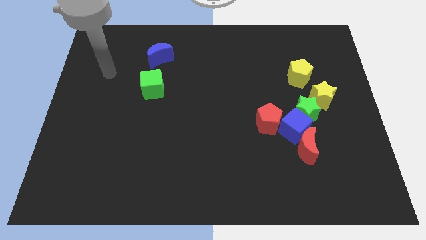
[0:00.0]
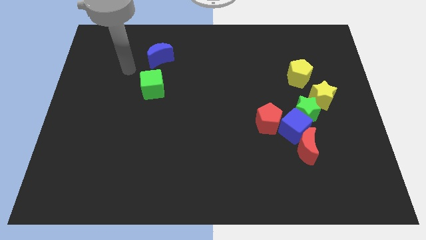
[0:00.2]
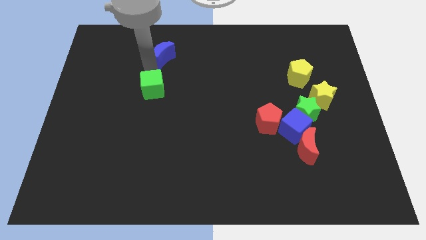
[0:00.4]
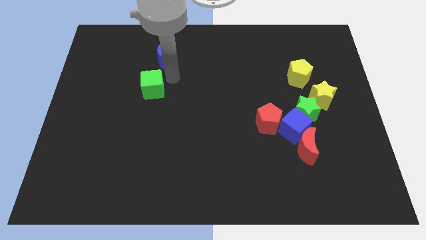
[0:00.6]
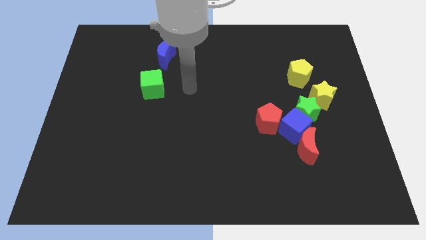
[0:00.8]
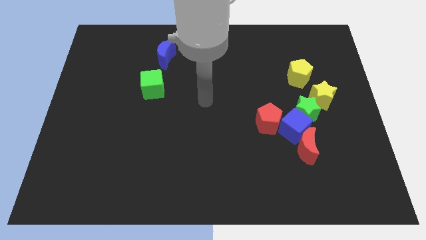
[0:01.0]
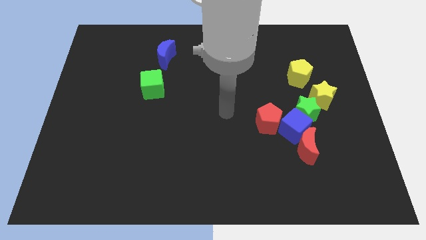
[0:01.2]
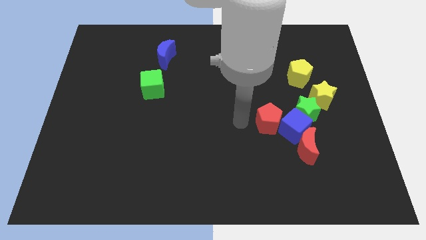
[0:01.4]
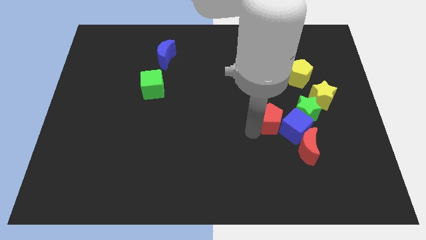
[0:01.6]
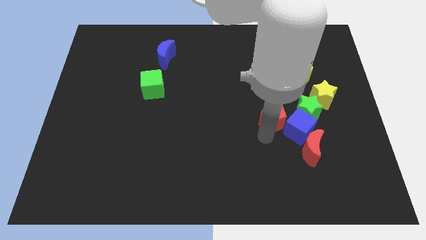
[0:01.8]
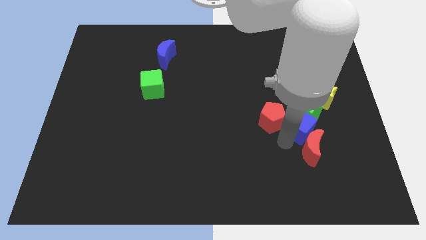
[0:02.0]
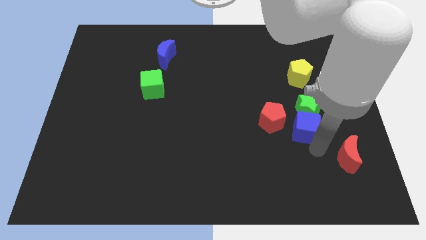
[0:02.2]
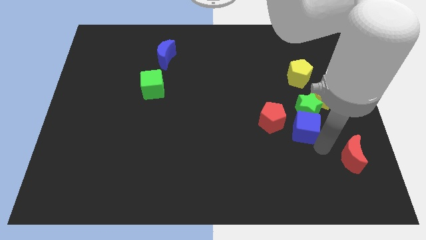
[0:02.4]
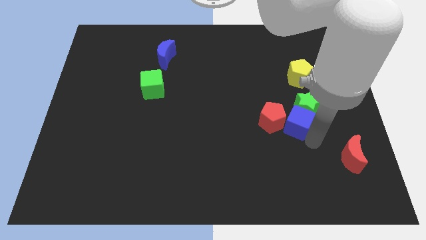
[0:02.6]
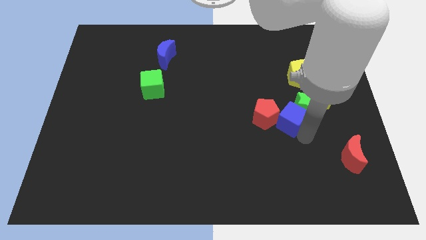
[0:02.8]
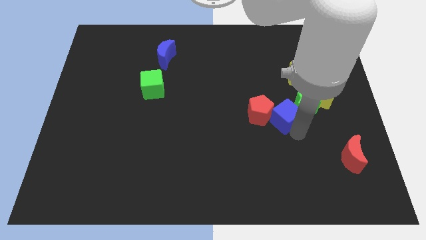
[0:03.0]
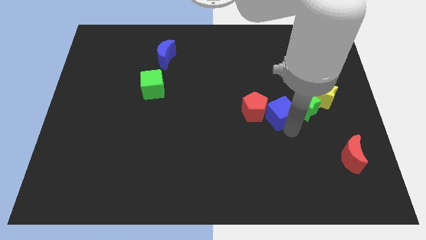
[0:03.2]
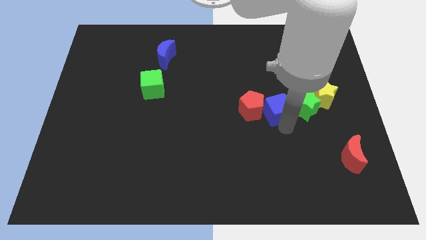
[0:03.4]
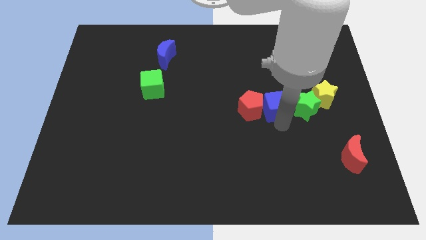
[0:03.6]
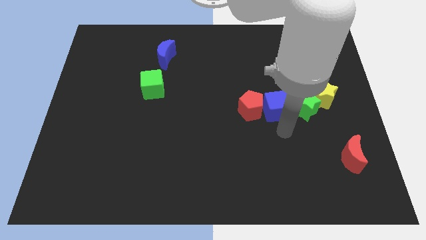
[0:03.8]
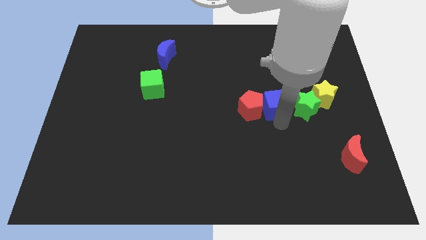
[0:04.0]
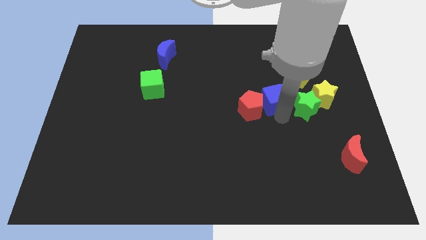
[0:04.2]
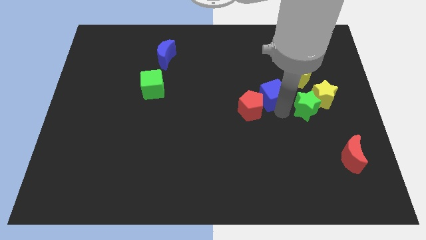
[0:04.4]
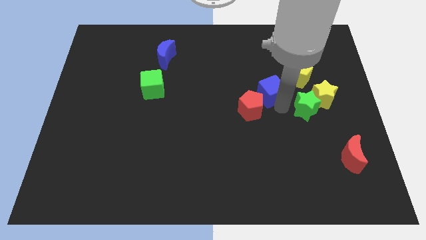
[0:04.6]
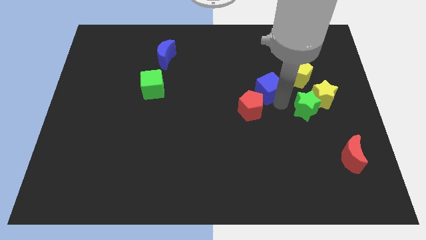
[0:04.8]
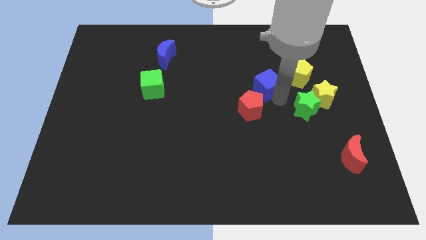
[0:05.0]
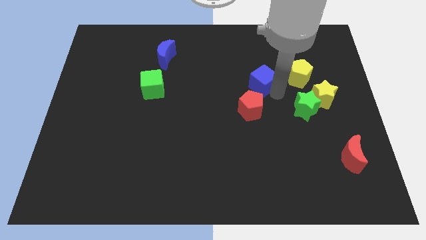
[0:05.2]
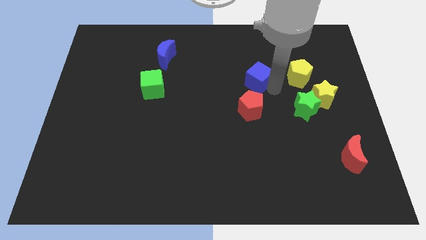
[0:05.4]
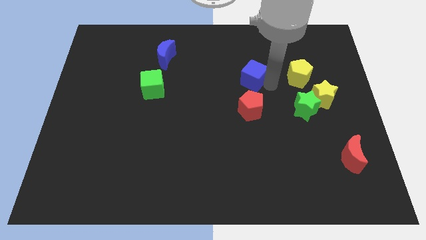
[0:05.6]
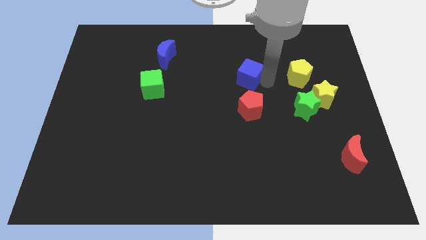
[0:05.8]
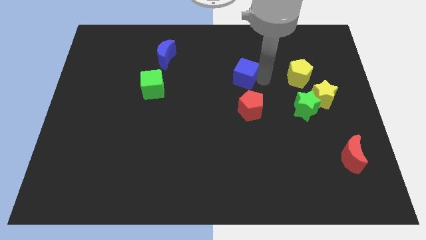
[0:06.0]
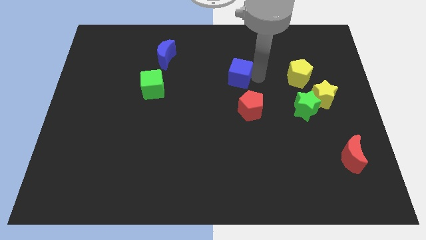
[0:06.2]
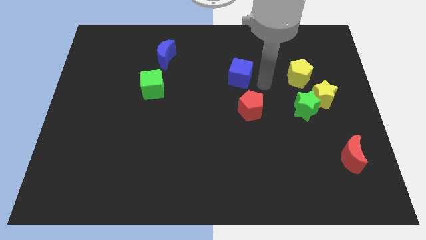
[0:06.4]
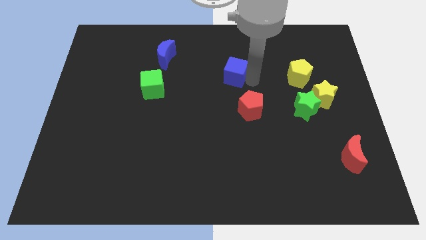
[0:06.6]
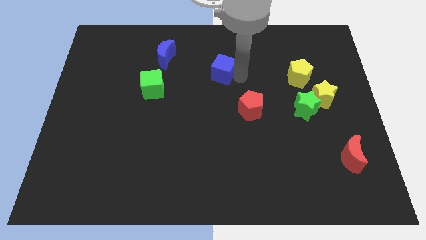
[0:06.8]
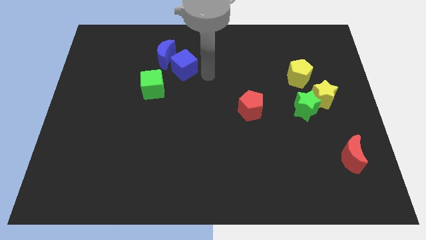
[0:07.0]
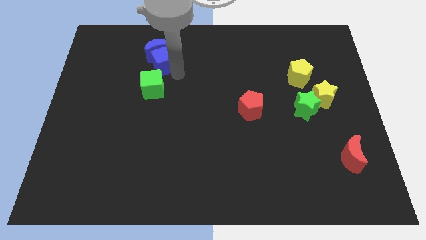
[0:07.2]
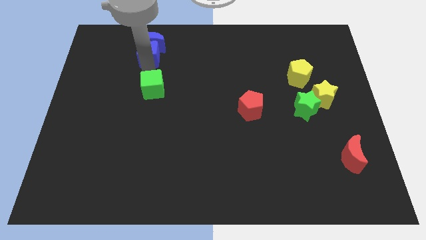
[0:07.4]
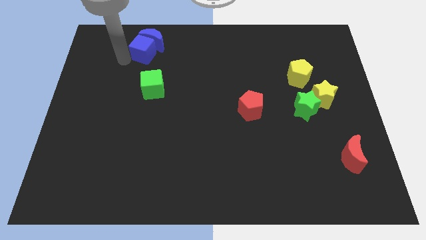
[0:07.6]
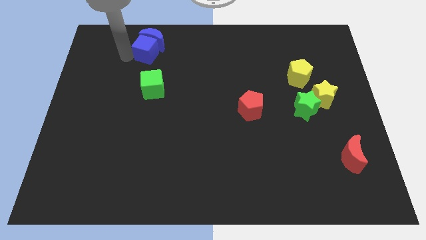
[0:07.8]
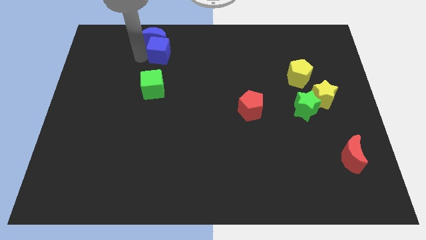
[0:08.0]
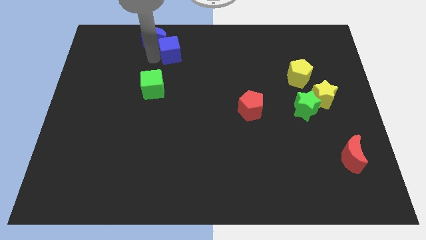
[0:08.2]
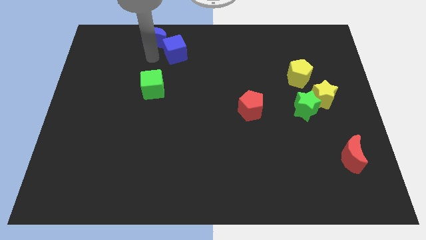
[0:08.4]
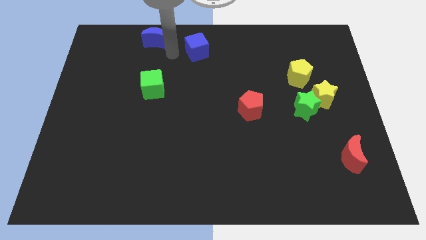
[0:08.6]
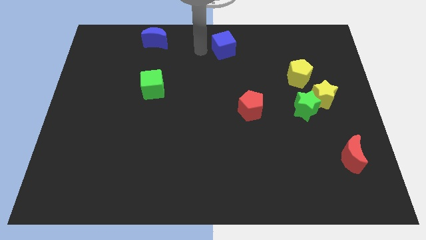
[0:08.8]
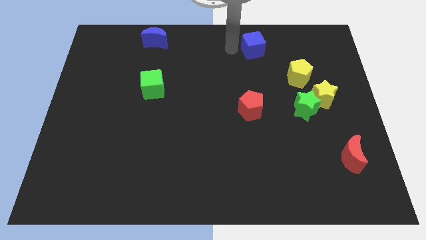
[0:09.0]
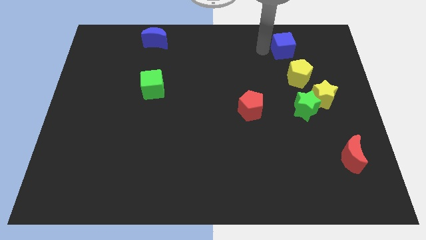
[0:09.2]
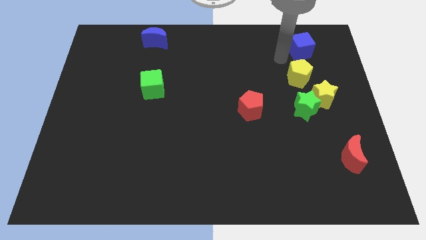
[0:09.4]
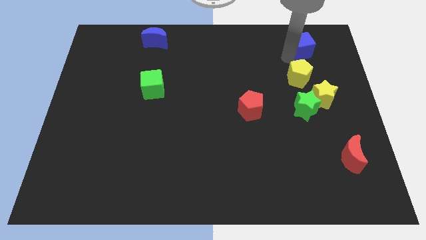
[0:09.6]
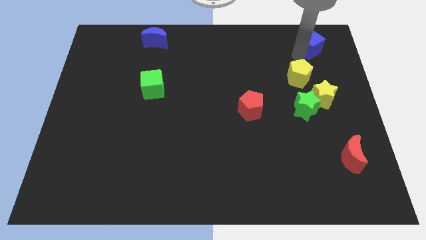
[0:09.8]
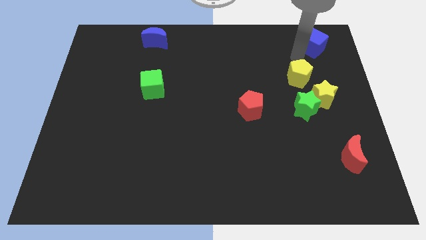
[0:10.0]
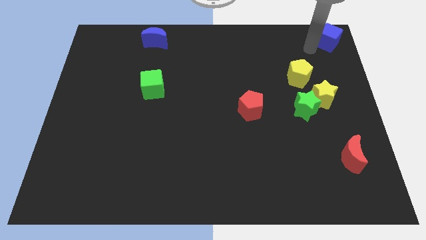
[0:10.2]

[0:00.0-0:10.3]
move the blue cube to the top right corner

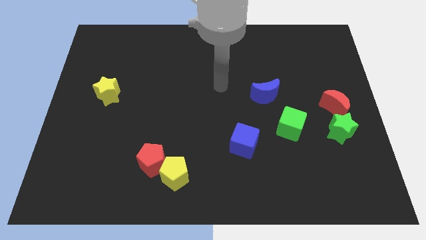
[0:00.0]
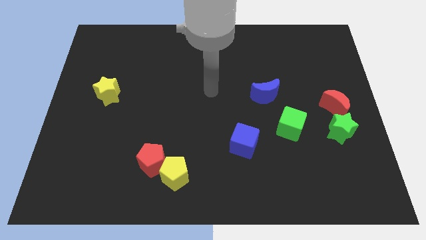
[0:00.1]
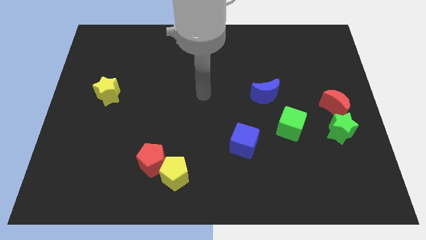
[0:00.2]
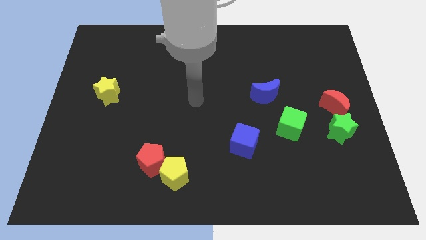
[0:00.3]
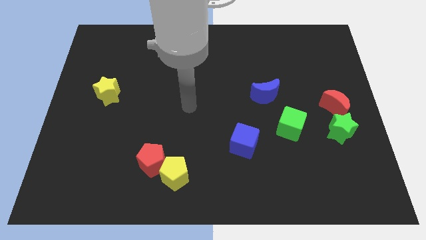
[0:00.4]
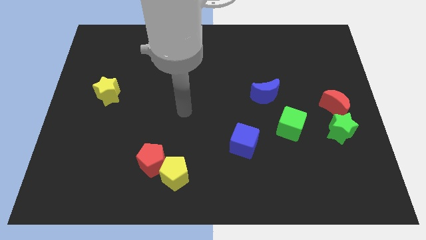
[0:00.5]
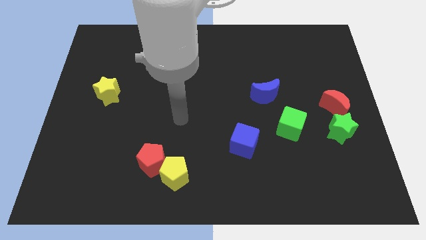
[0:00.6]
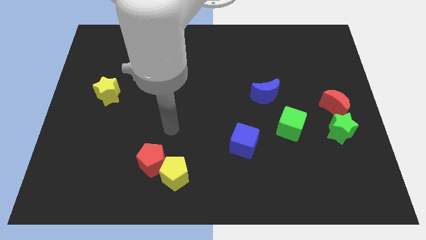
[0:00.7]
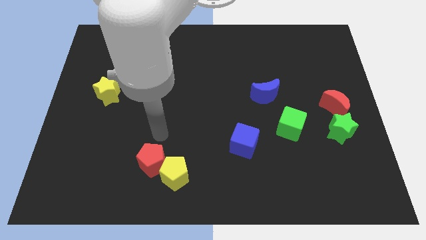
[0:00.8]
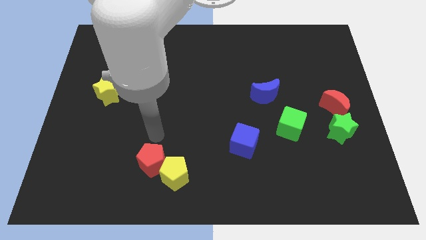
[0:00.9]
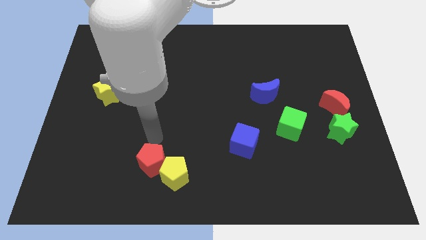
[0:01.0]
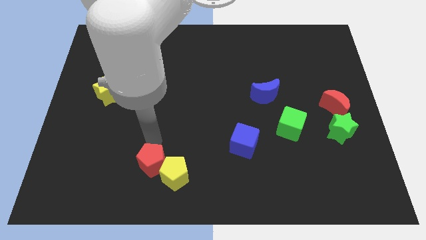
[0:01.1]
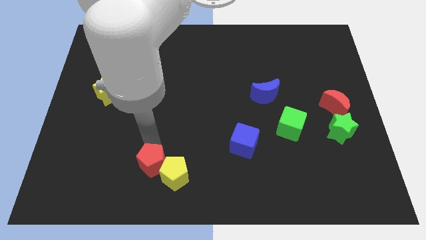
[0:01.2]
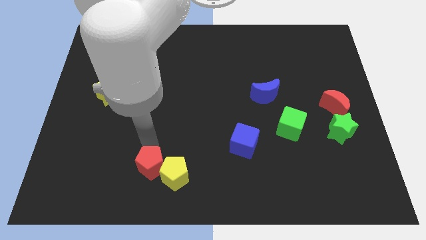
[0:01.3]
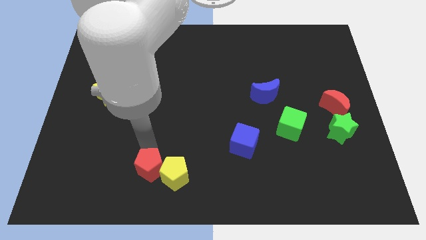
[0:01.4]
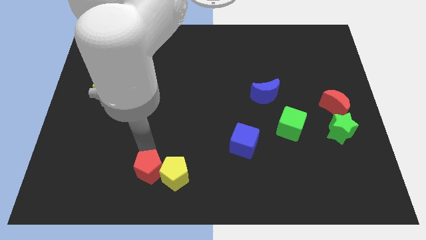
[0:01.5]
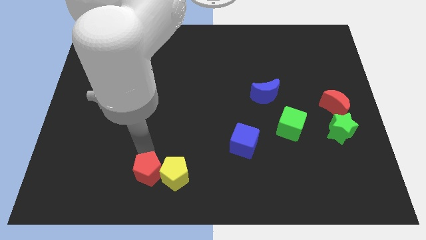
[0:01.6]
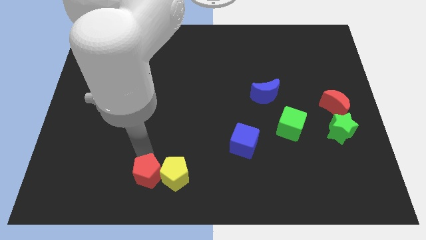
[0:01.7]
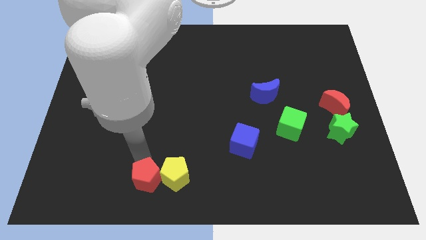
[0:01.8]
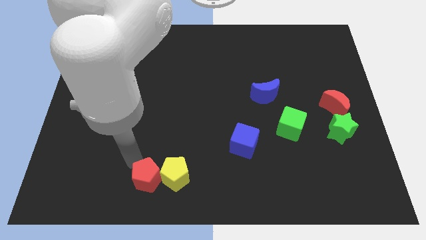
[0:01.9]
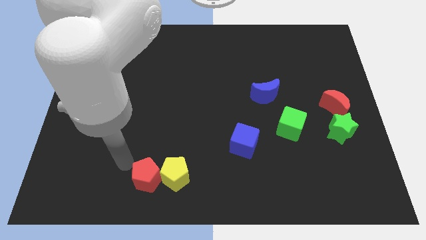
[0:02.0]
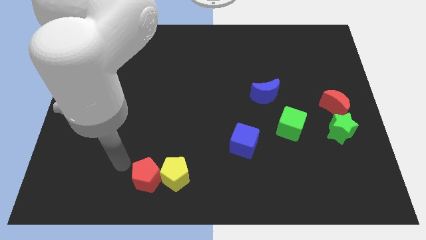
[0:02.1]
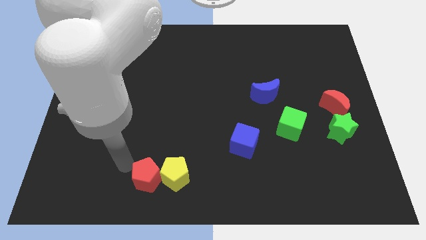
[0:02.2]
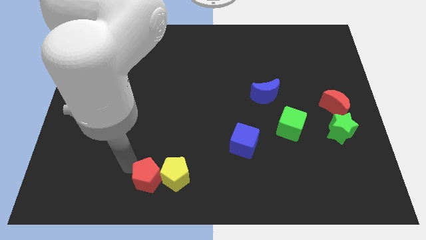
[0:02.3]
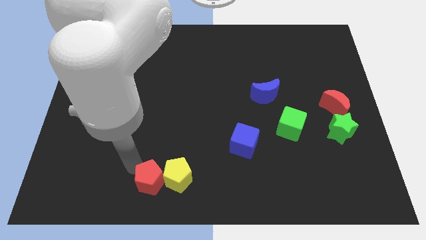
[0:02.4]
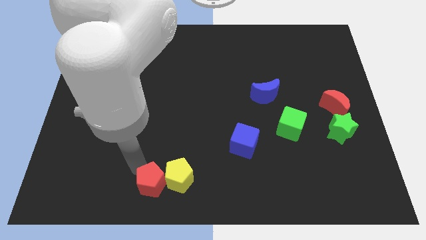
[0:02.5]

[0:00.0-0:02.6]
move the red pentagon to the bottom side

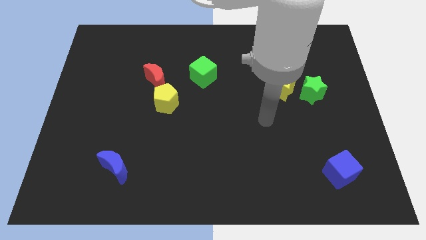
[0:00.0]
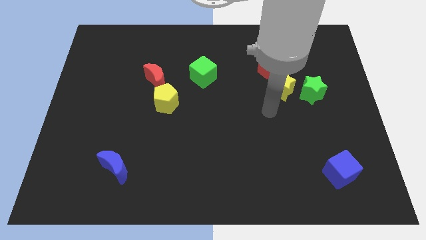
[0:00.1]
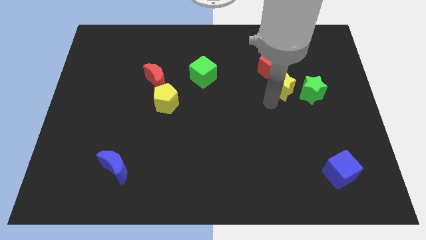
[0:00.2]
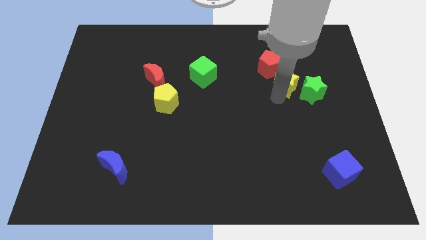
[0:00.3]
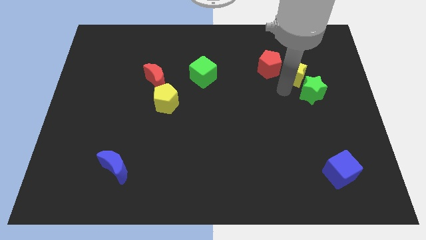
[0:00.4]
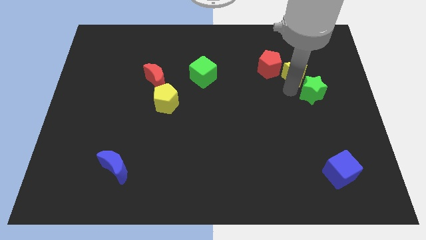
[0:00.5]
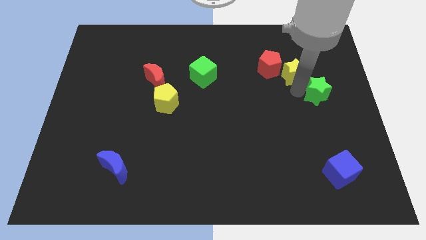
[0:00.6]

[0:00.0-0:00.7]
move the green star to the center right
